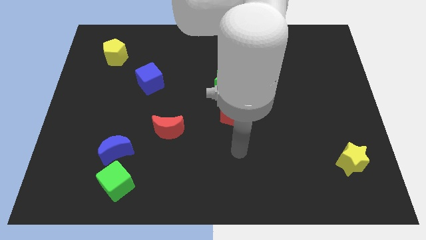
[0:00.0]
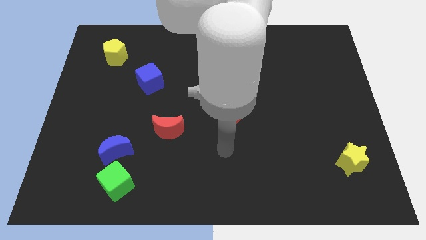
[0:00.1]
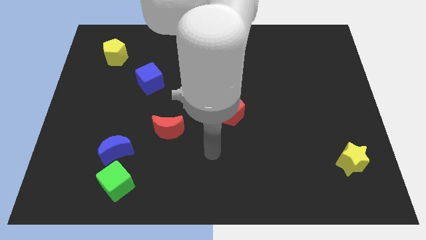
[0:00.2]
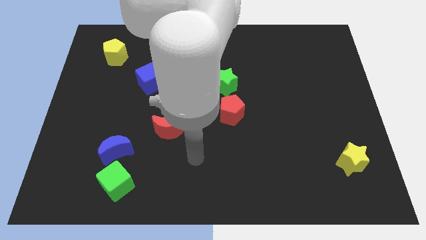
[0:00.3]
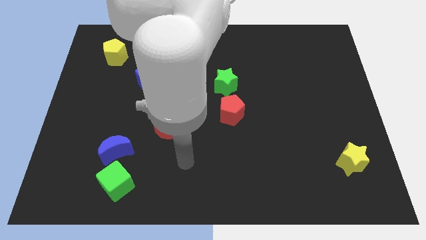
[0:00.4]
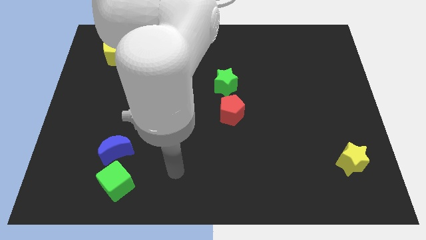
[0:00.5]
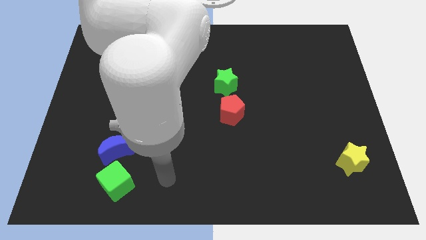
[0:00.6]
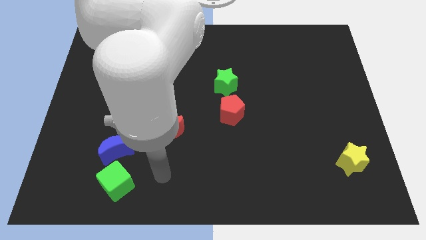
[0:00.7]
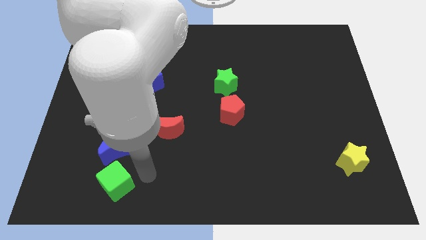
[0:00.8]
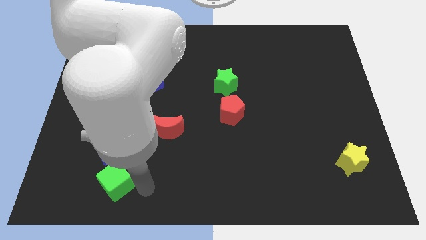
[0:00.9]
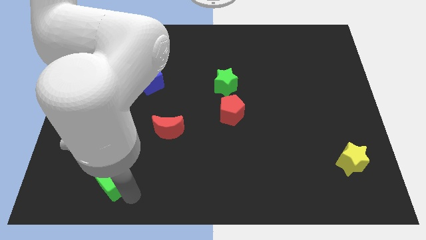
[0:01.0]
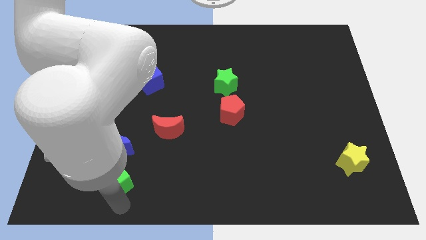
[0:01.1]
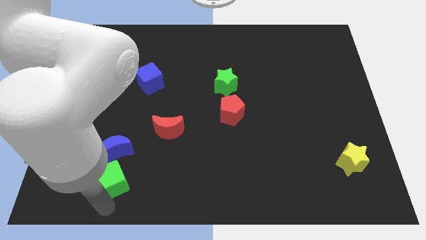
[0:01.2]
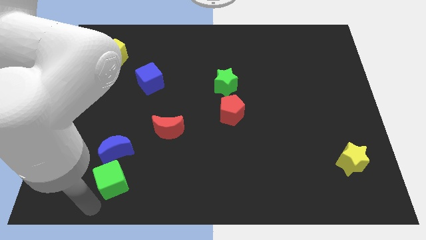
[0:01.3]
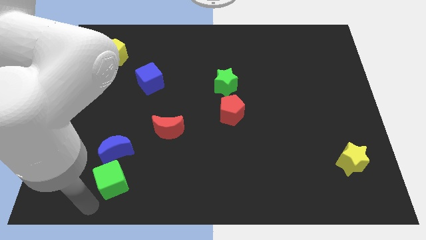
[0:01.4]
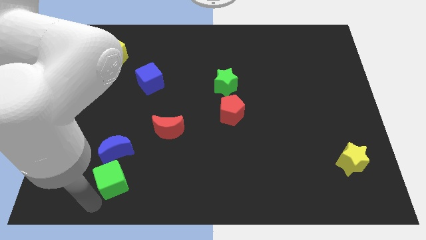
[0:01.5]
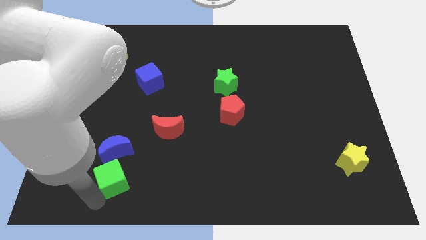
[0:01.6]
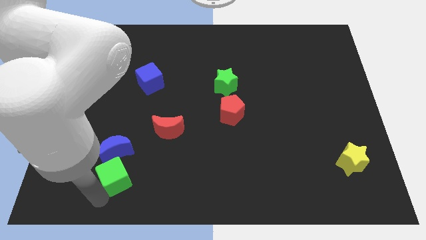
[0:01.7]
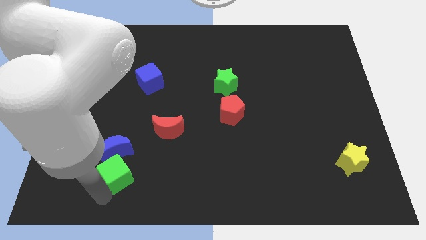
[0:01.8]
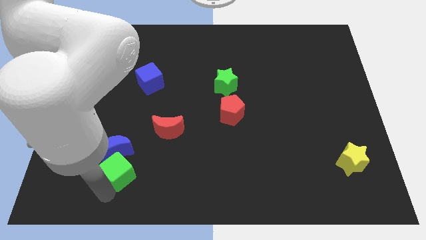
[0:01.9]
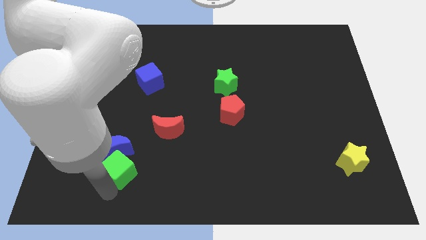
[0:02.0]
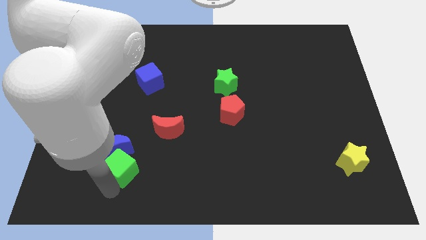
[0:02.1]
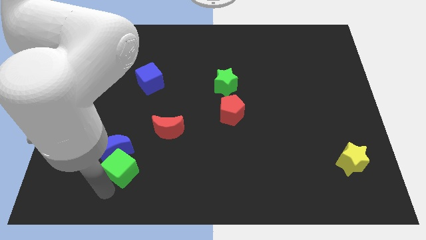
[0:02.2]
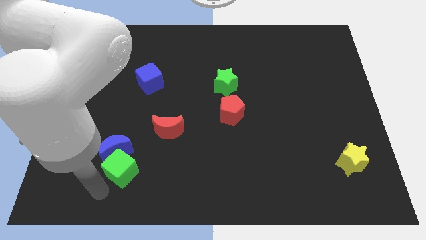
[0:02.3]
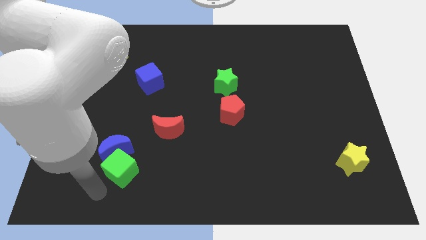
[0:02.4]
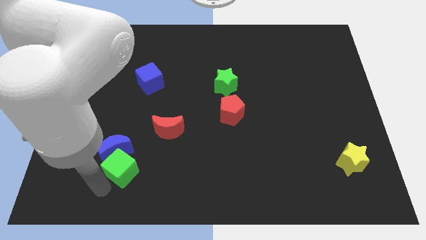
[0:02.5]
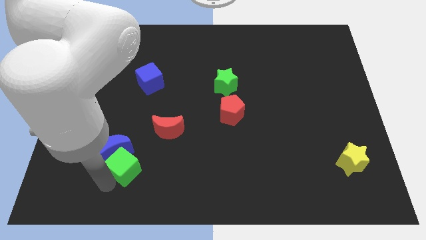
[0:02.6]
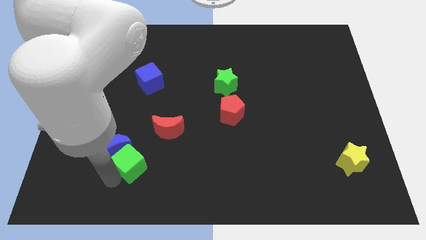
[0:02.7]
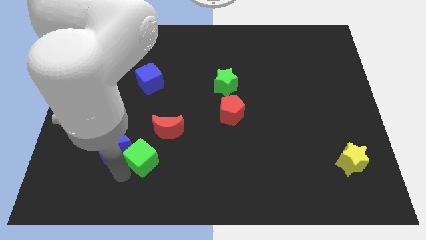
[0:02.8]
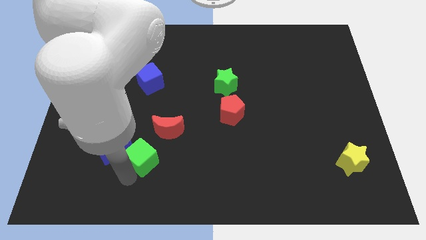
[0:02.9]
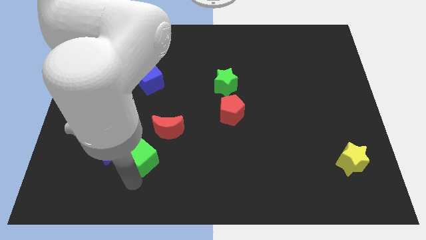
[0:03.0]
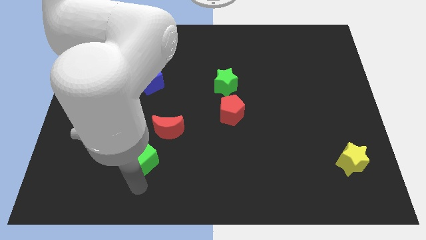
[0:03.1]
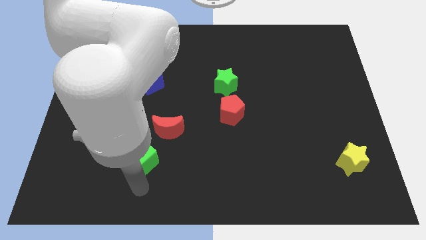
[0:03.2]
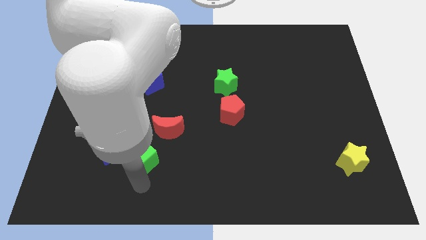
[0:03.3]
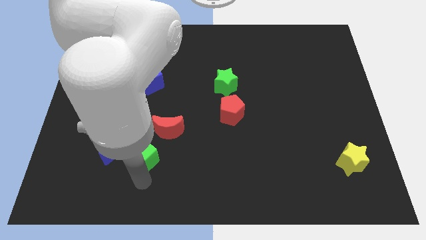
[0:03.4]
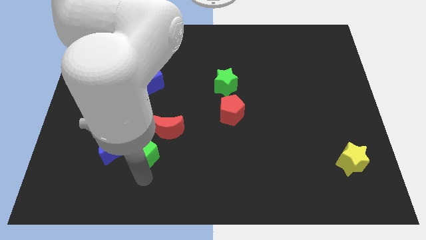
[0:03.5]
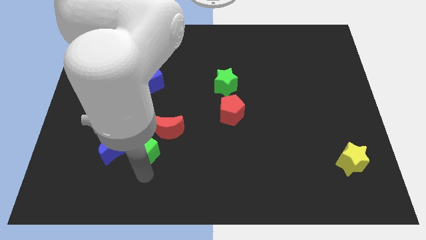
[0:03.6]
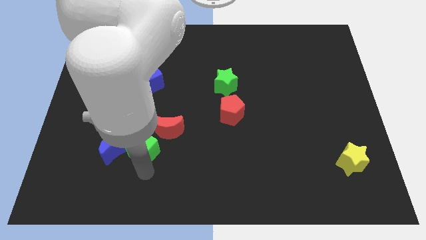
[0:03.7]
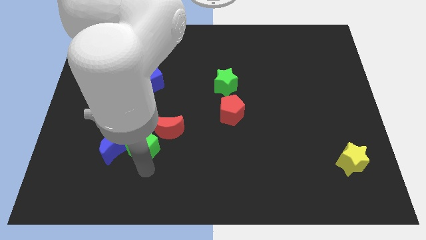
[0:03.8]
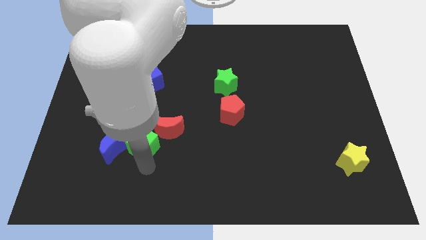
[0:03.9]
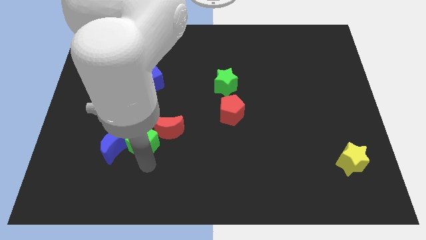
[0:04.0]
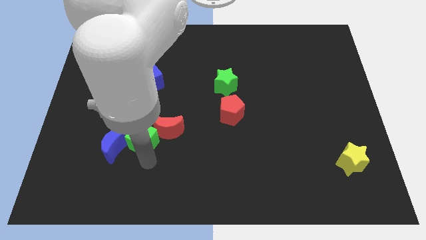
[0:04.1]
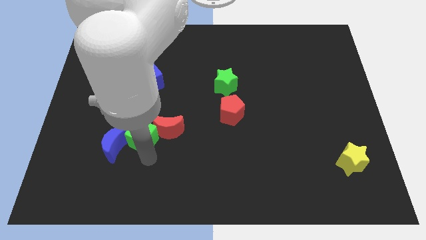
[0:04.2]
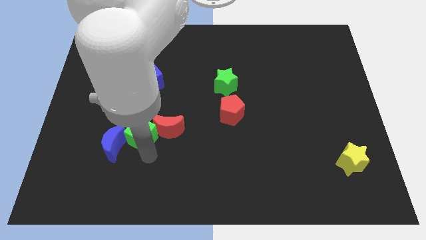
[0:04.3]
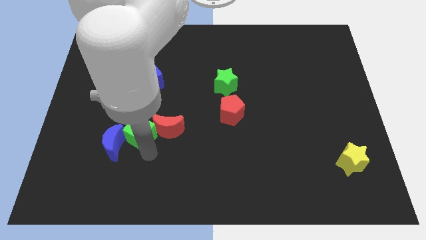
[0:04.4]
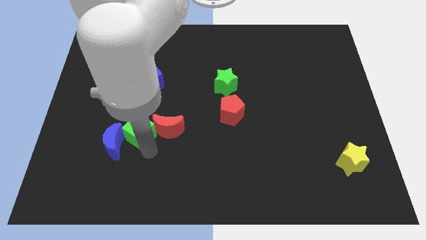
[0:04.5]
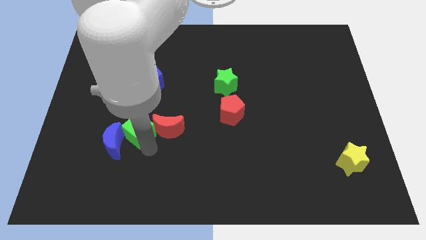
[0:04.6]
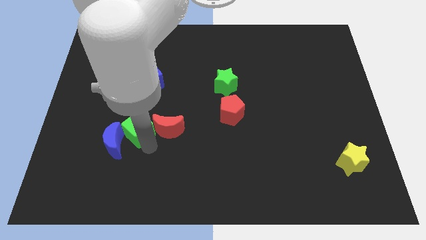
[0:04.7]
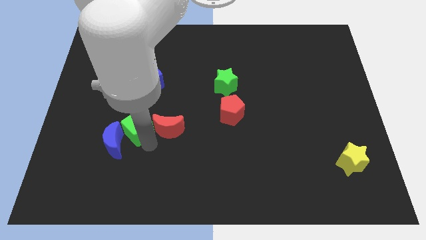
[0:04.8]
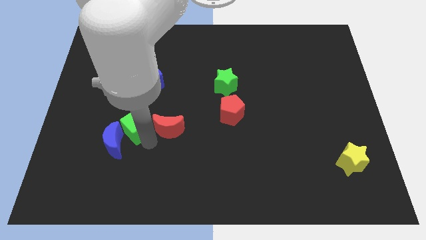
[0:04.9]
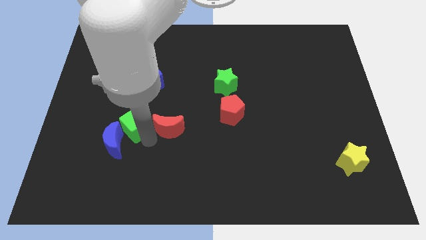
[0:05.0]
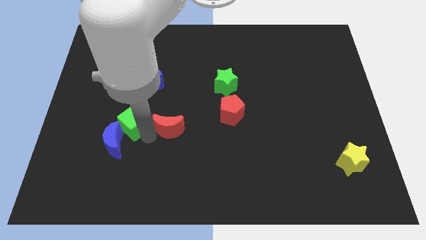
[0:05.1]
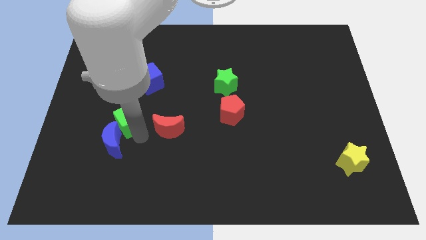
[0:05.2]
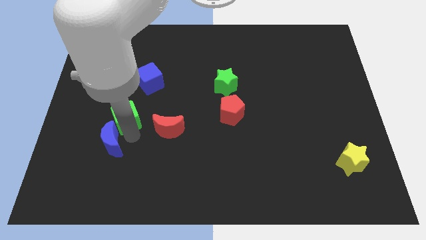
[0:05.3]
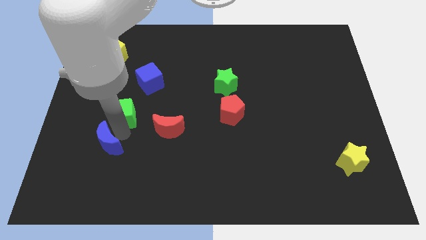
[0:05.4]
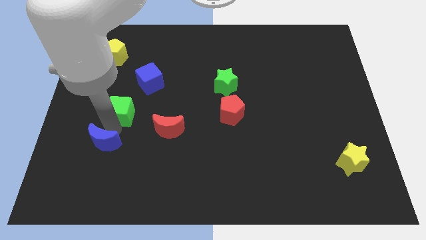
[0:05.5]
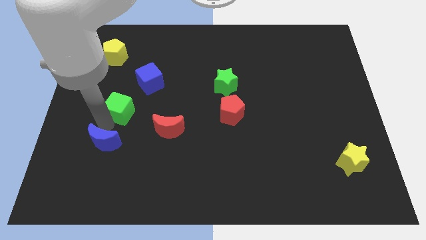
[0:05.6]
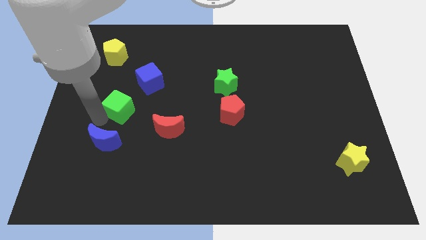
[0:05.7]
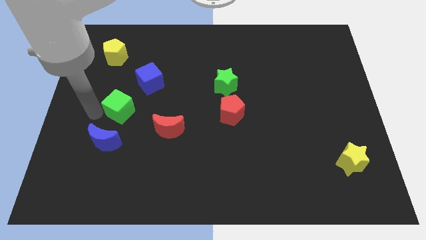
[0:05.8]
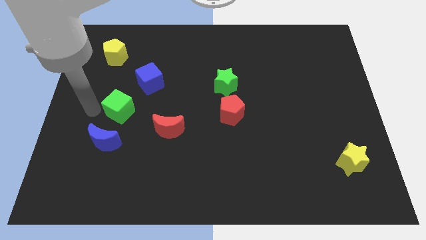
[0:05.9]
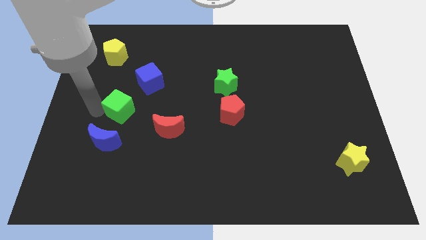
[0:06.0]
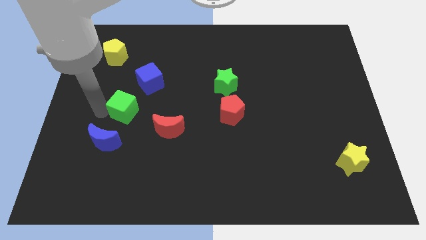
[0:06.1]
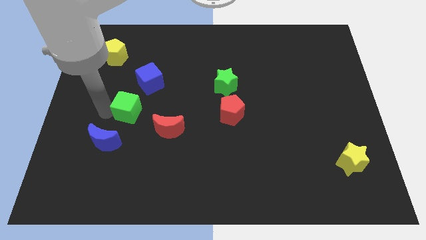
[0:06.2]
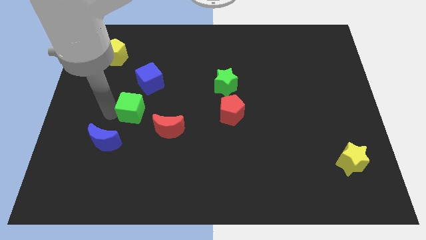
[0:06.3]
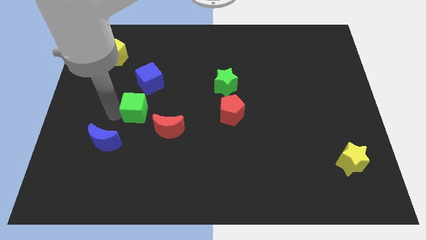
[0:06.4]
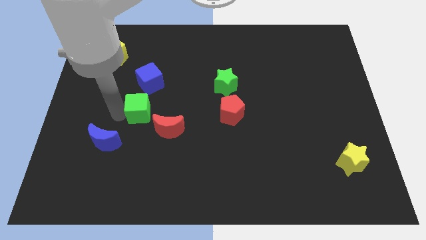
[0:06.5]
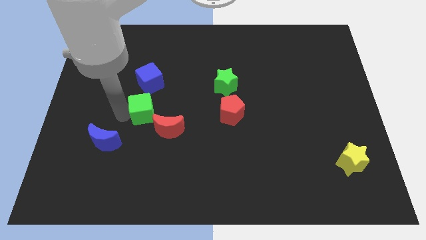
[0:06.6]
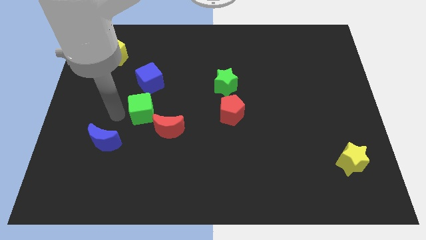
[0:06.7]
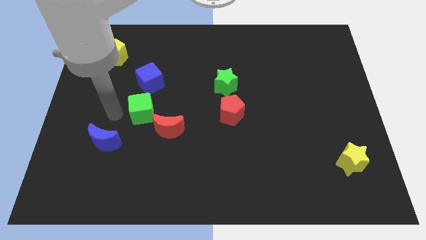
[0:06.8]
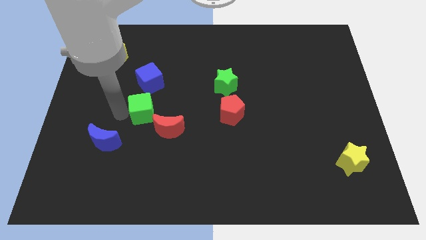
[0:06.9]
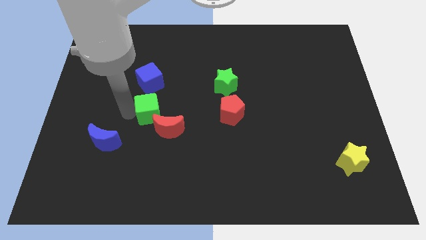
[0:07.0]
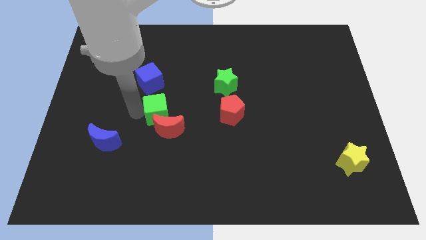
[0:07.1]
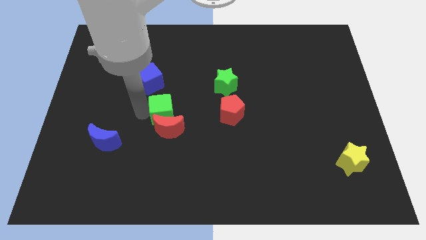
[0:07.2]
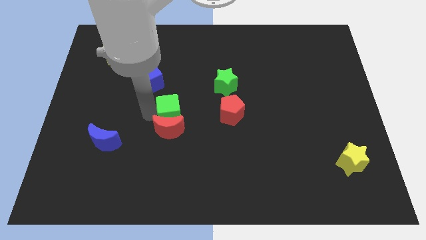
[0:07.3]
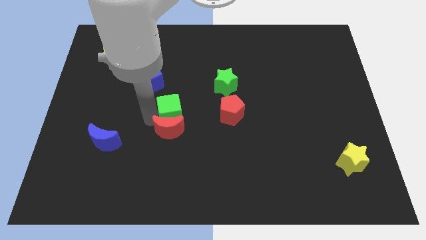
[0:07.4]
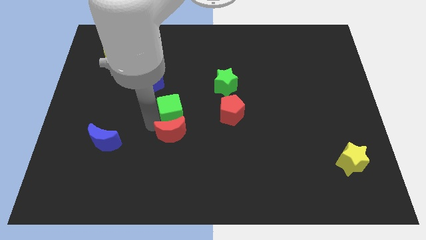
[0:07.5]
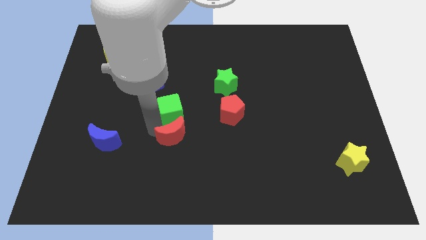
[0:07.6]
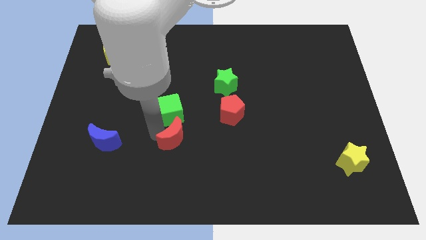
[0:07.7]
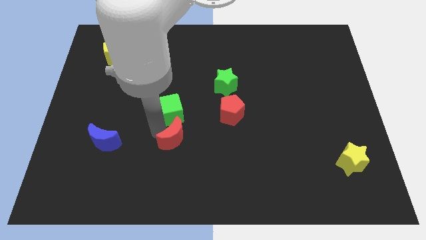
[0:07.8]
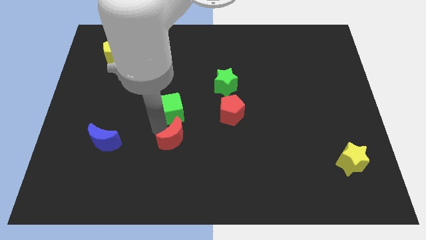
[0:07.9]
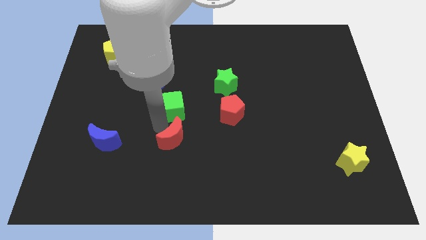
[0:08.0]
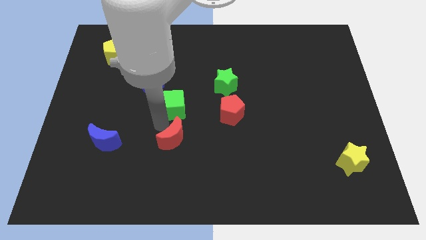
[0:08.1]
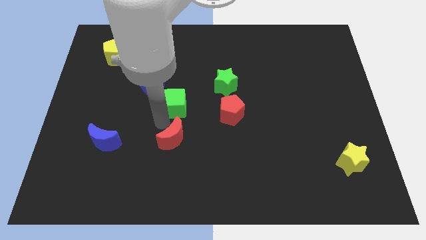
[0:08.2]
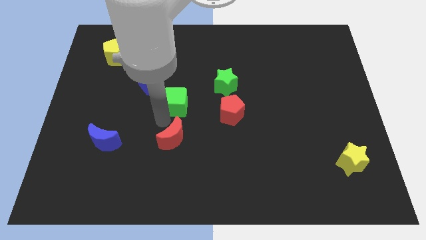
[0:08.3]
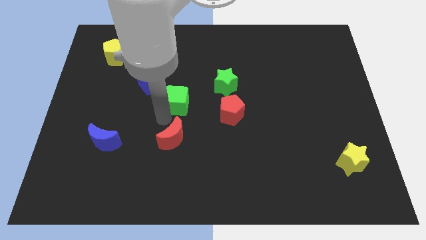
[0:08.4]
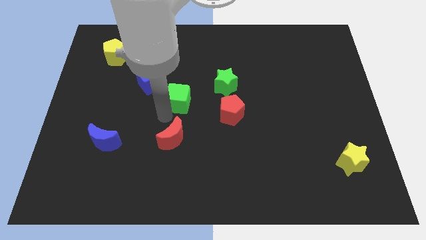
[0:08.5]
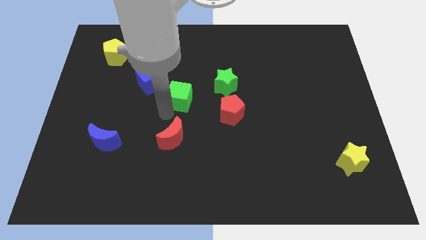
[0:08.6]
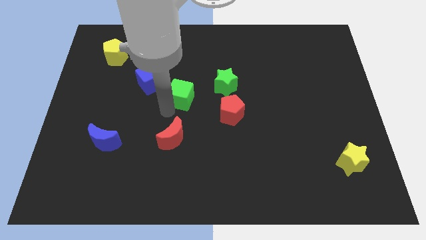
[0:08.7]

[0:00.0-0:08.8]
put the green cube right of the blue cube
